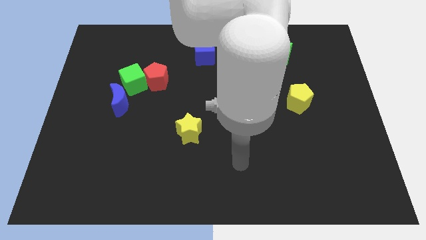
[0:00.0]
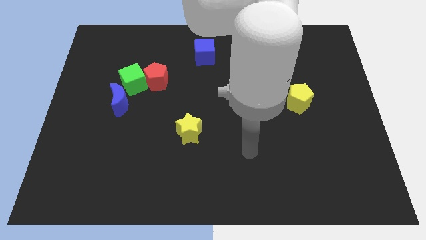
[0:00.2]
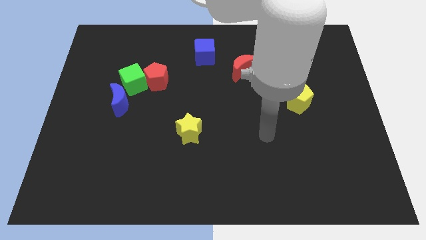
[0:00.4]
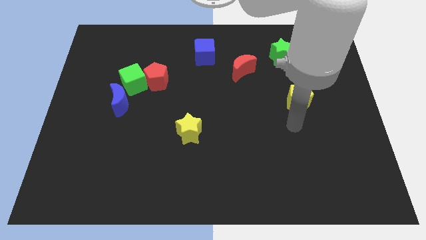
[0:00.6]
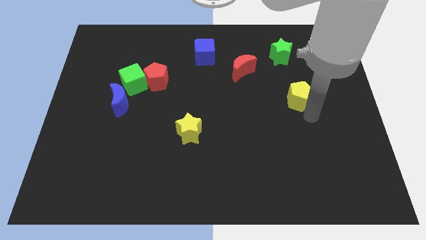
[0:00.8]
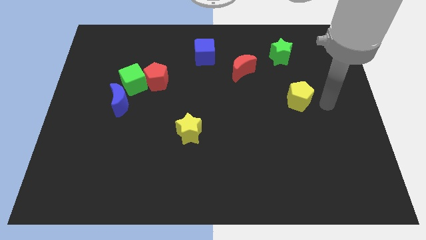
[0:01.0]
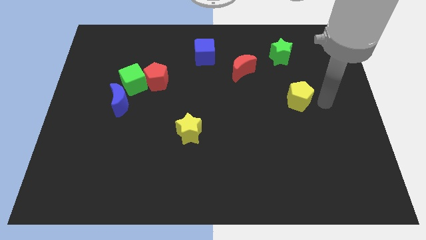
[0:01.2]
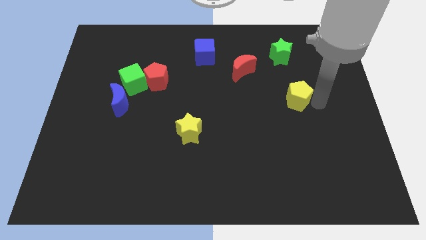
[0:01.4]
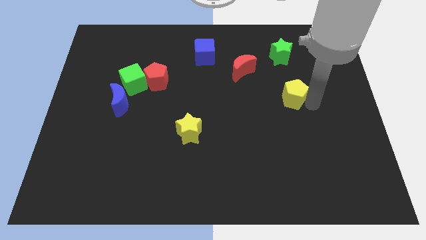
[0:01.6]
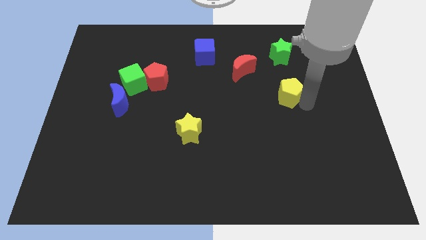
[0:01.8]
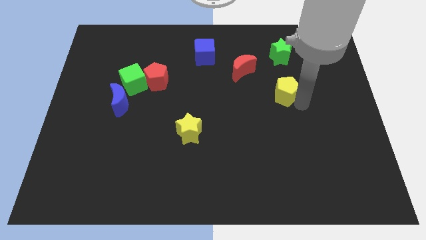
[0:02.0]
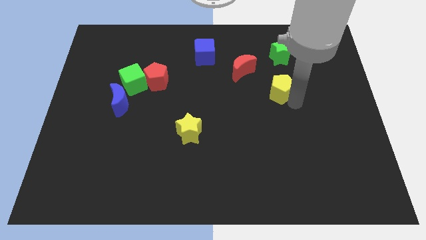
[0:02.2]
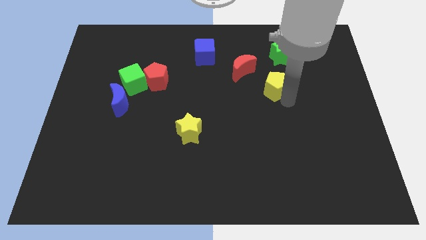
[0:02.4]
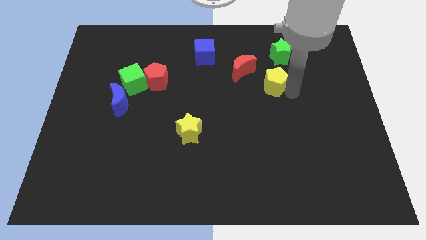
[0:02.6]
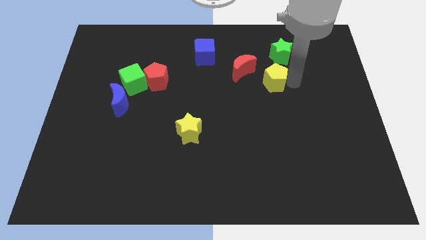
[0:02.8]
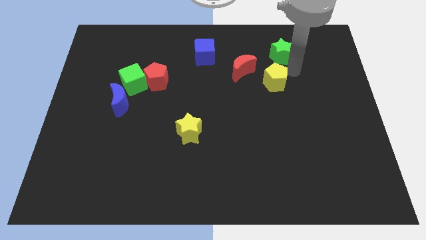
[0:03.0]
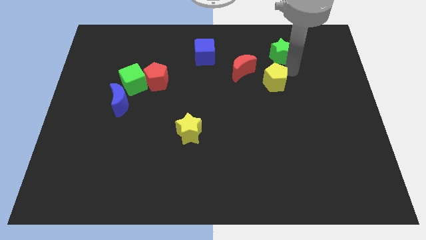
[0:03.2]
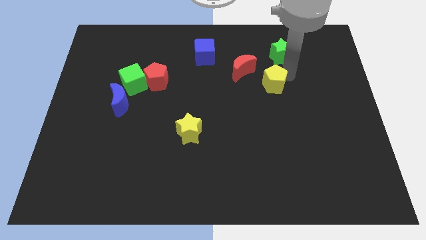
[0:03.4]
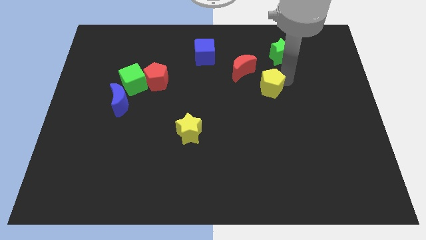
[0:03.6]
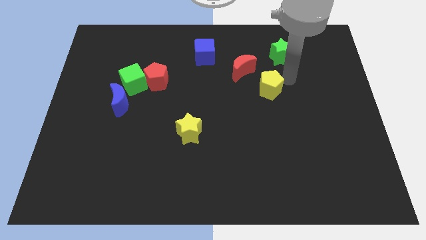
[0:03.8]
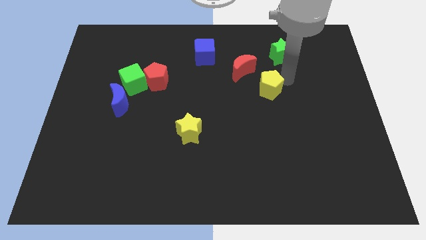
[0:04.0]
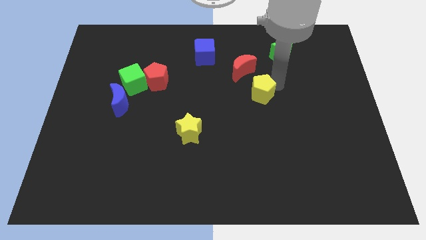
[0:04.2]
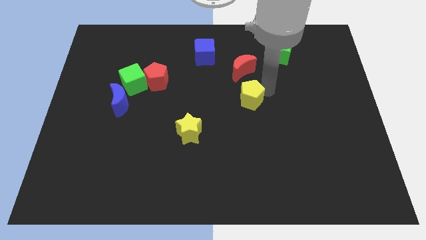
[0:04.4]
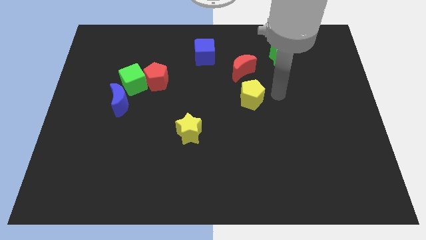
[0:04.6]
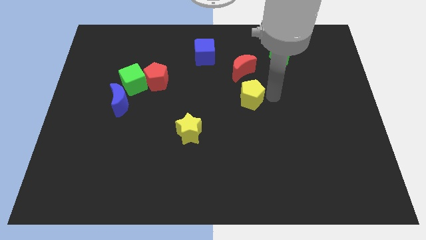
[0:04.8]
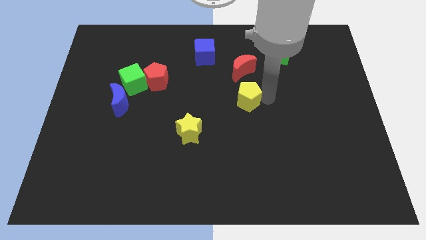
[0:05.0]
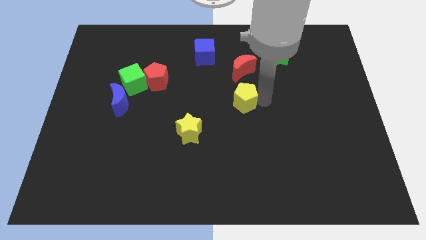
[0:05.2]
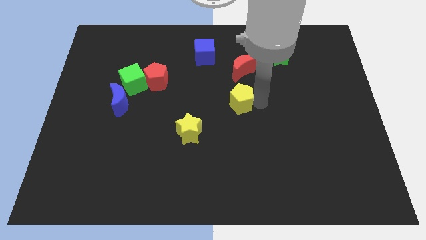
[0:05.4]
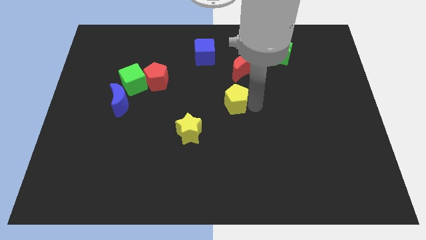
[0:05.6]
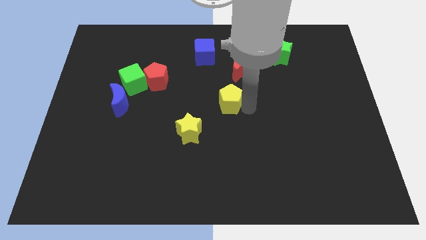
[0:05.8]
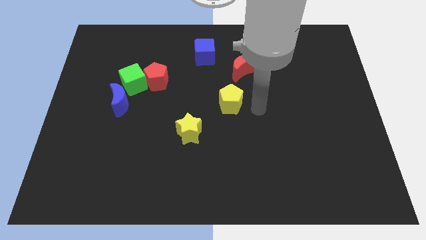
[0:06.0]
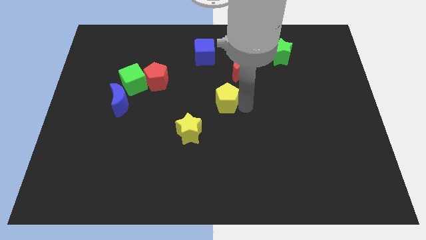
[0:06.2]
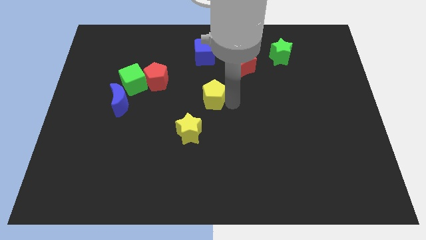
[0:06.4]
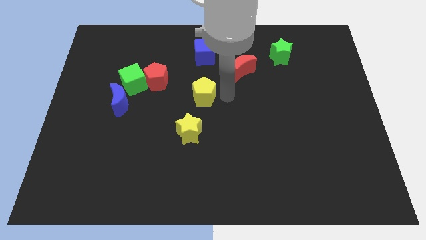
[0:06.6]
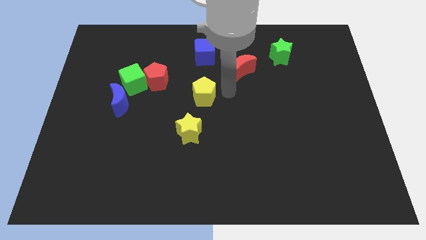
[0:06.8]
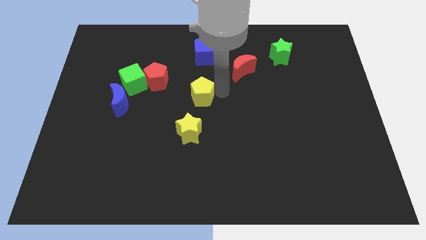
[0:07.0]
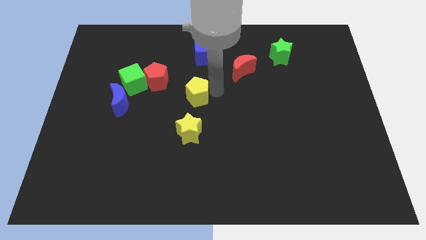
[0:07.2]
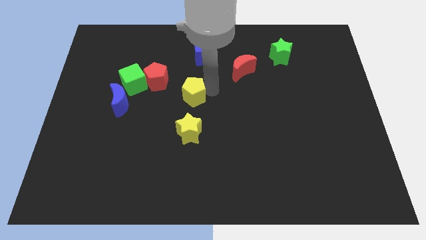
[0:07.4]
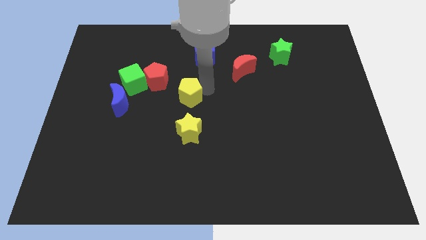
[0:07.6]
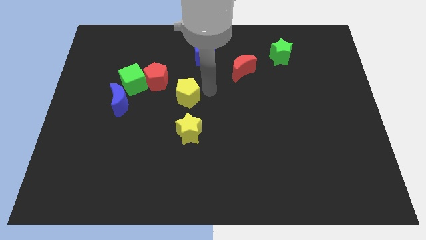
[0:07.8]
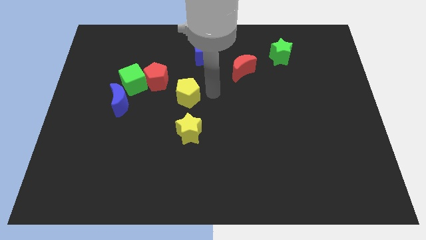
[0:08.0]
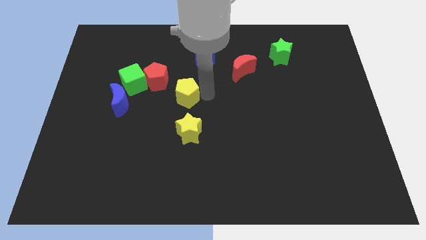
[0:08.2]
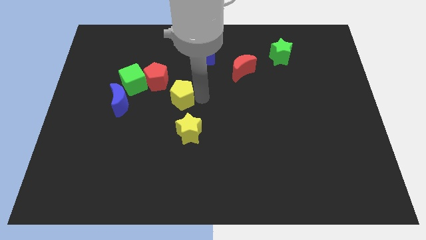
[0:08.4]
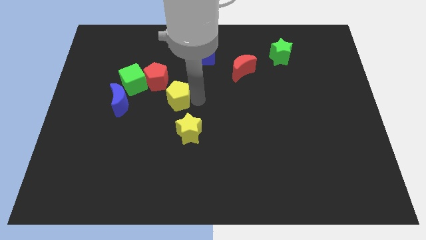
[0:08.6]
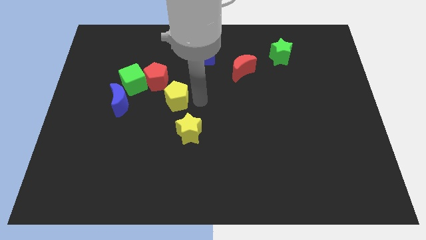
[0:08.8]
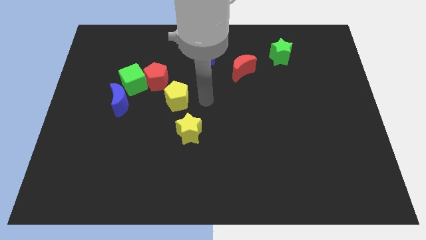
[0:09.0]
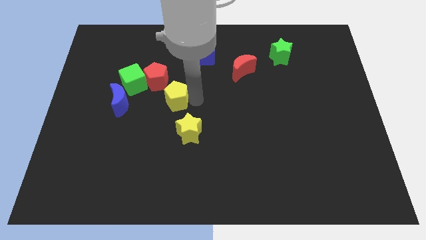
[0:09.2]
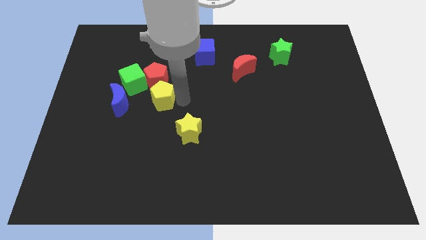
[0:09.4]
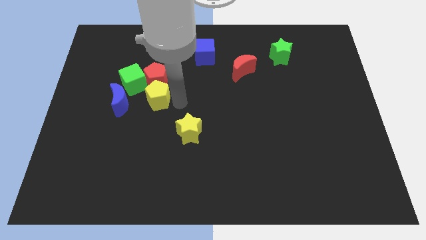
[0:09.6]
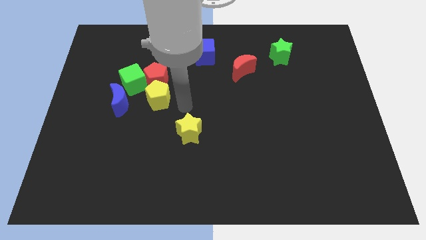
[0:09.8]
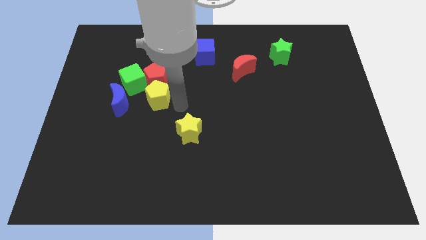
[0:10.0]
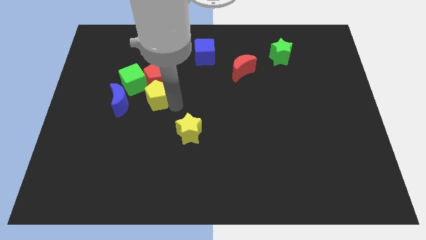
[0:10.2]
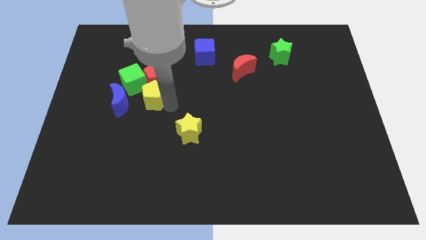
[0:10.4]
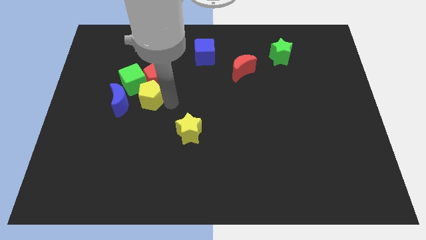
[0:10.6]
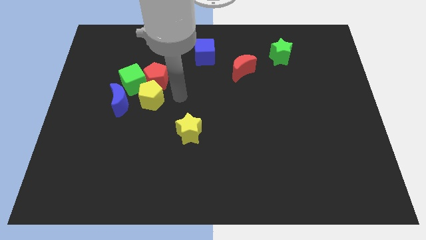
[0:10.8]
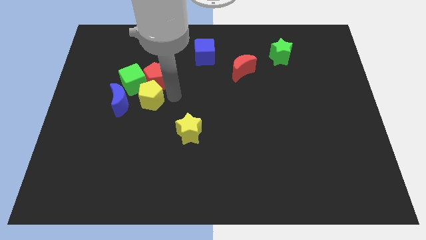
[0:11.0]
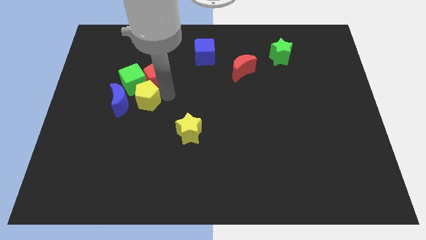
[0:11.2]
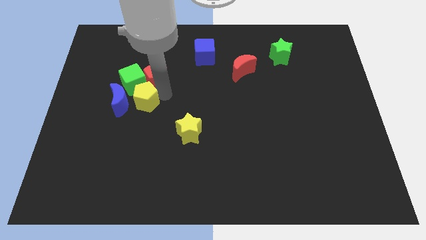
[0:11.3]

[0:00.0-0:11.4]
put the yellow pentagon next to the blue moon

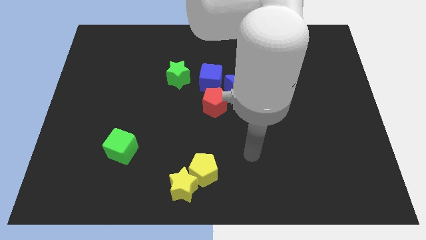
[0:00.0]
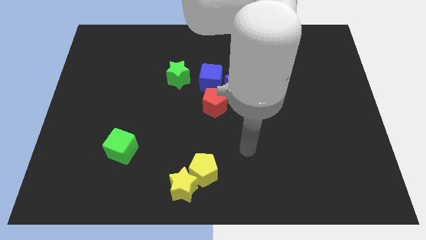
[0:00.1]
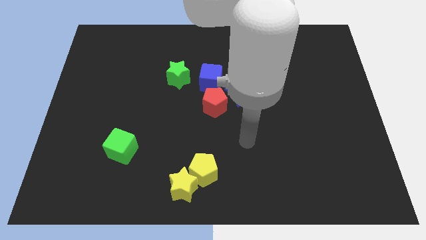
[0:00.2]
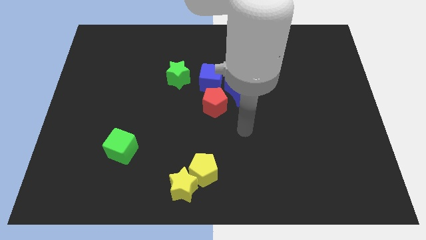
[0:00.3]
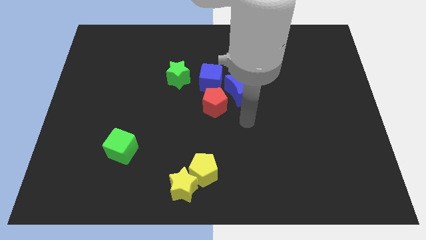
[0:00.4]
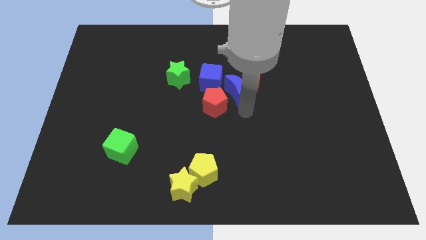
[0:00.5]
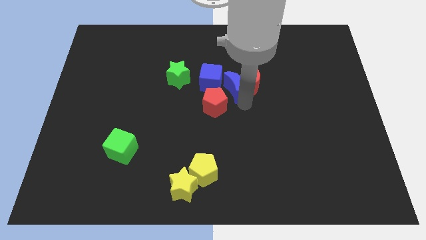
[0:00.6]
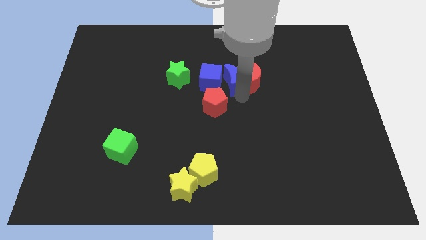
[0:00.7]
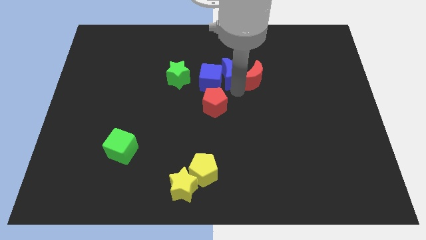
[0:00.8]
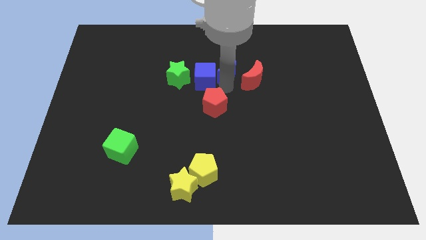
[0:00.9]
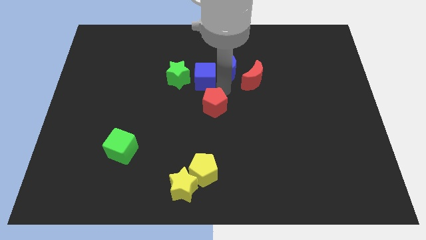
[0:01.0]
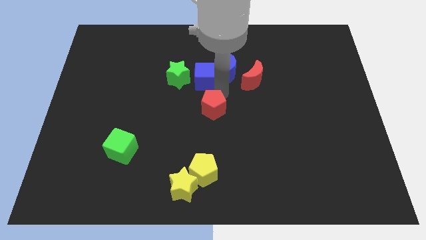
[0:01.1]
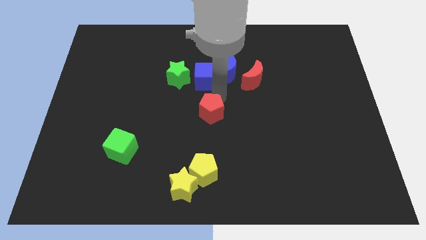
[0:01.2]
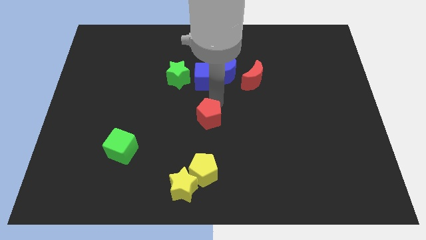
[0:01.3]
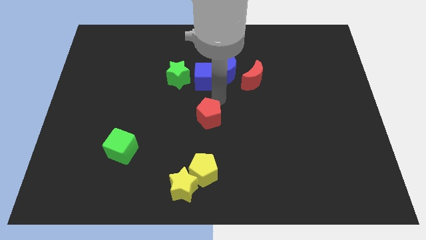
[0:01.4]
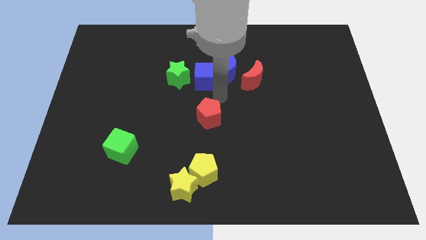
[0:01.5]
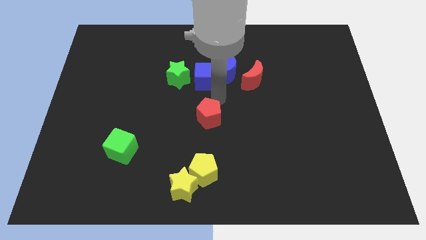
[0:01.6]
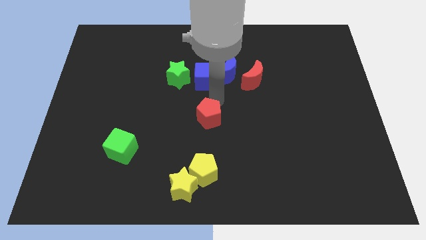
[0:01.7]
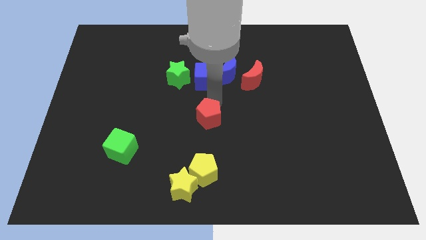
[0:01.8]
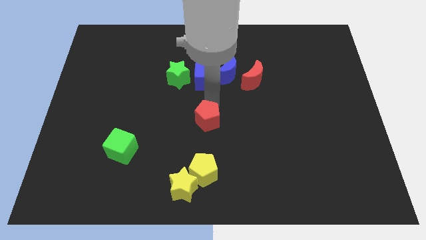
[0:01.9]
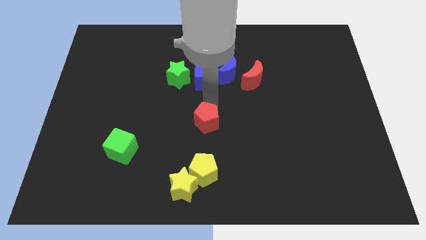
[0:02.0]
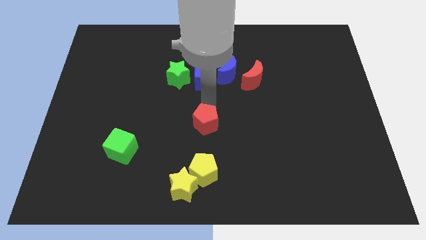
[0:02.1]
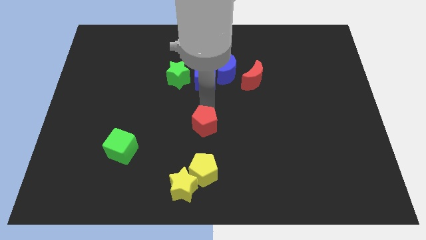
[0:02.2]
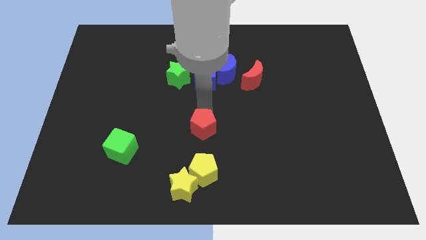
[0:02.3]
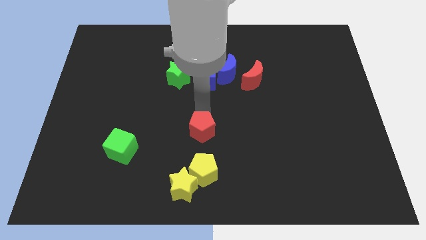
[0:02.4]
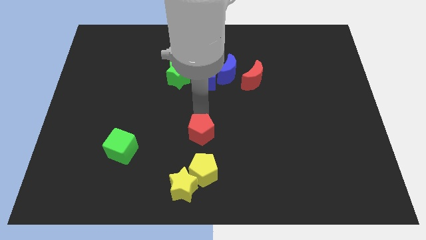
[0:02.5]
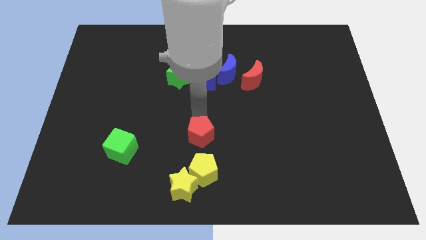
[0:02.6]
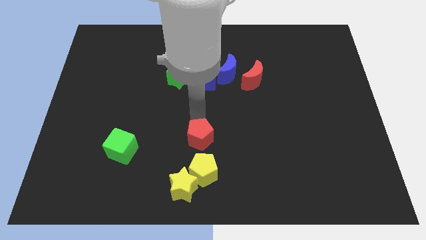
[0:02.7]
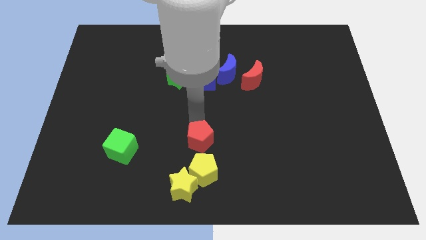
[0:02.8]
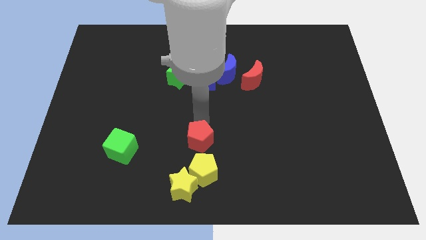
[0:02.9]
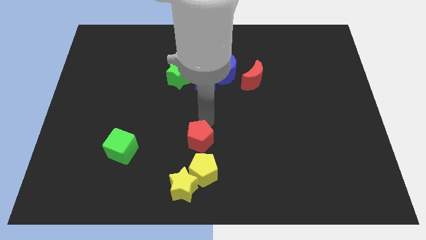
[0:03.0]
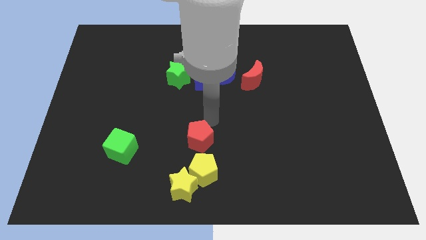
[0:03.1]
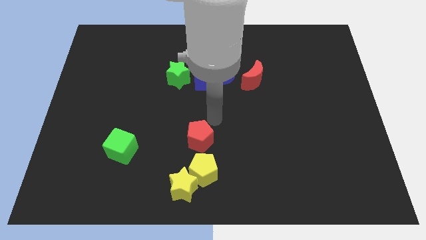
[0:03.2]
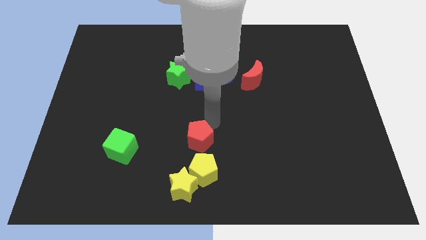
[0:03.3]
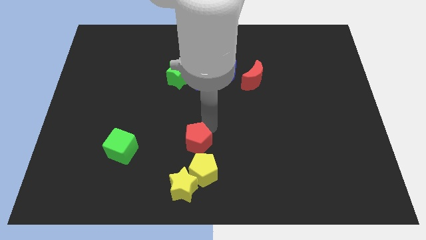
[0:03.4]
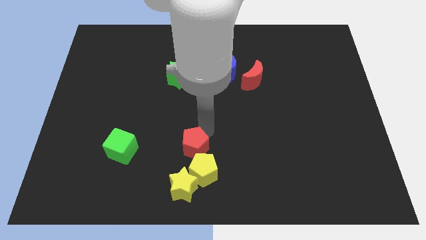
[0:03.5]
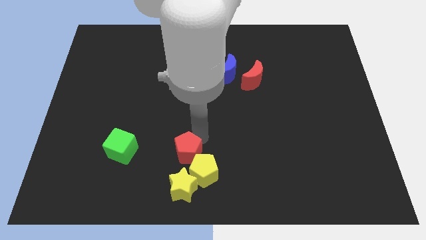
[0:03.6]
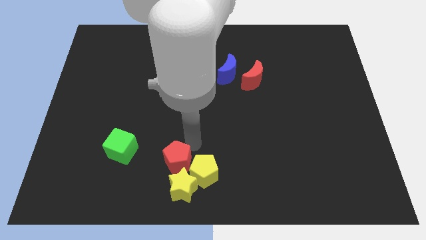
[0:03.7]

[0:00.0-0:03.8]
slide the red pentagon towards the yellow star
